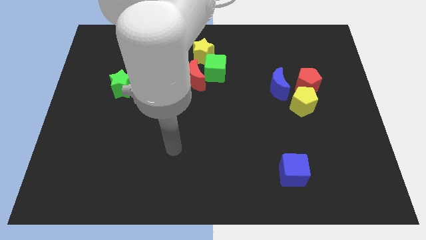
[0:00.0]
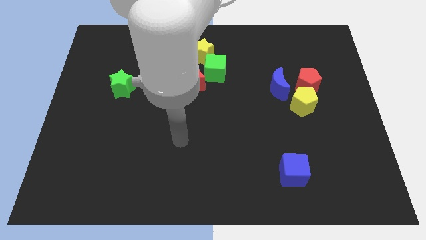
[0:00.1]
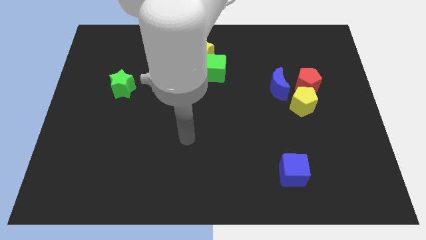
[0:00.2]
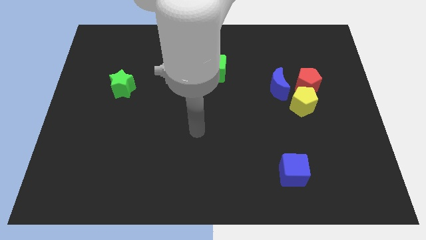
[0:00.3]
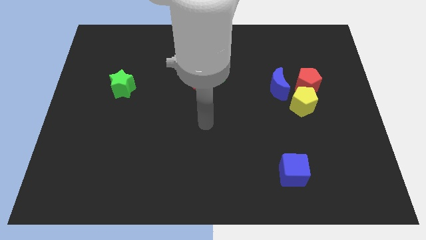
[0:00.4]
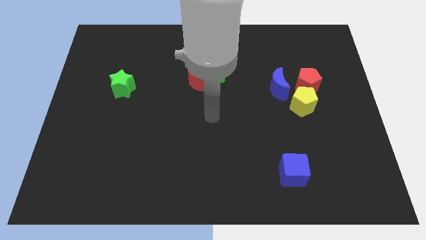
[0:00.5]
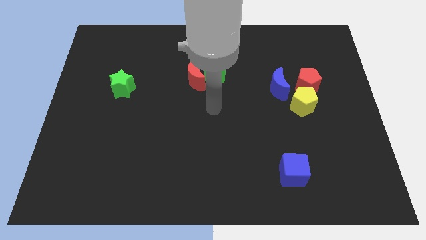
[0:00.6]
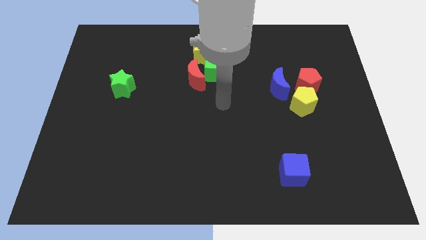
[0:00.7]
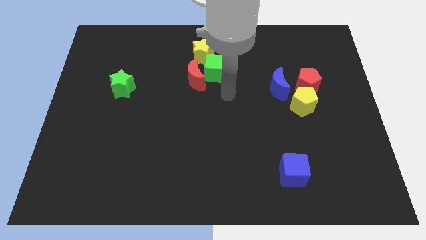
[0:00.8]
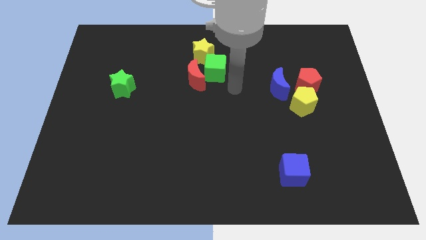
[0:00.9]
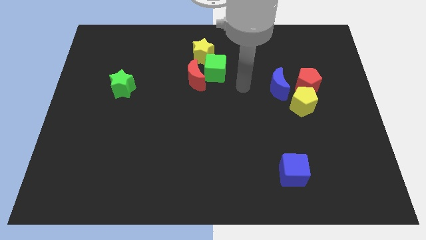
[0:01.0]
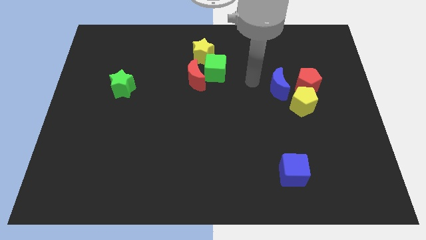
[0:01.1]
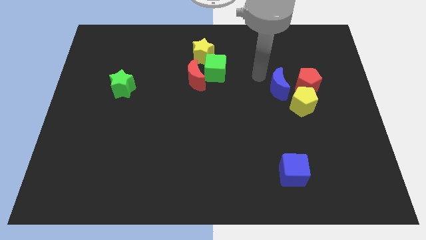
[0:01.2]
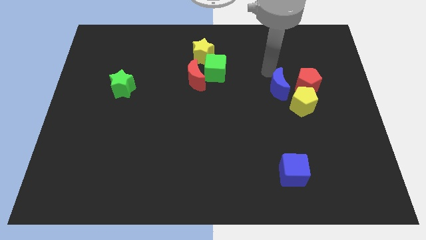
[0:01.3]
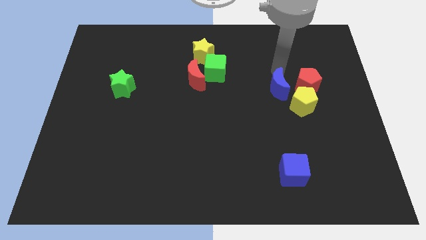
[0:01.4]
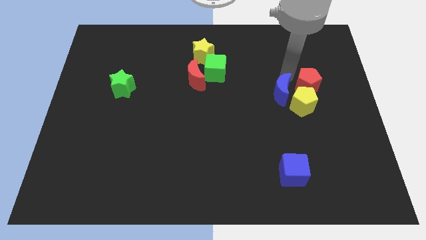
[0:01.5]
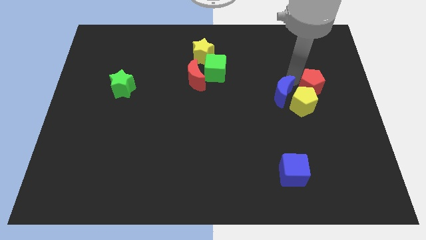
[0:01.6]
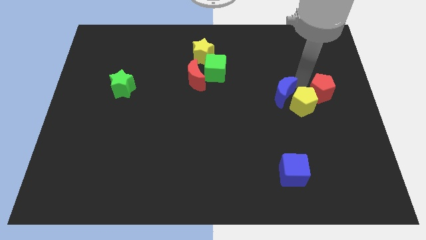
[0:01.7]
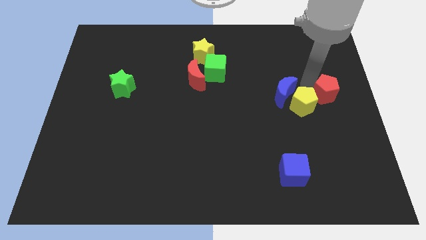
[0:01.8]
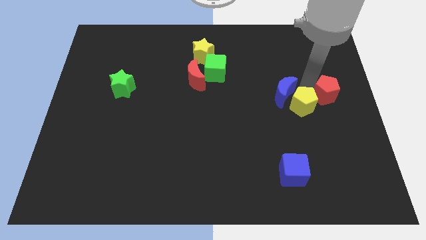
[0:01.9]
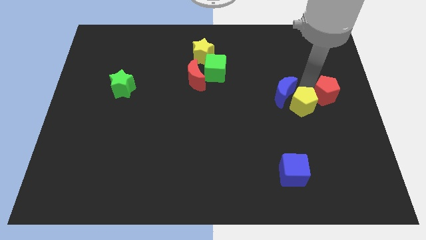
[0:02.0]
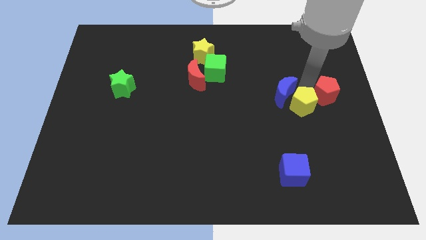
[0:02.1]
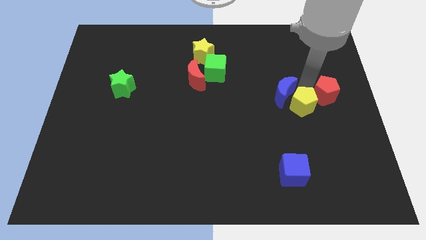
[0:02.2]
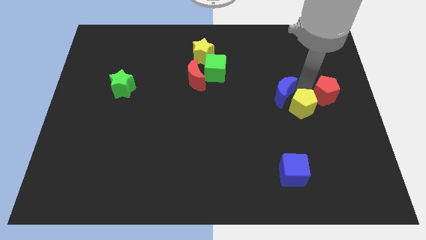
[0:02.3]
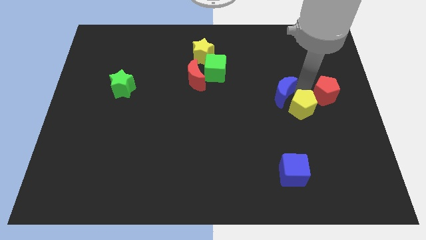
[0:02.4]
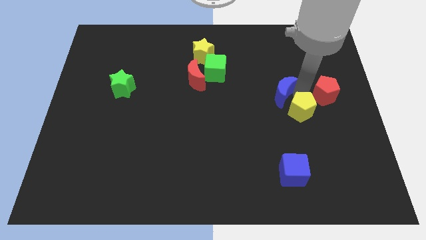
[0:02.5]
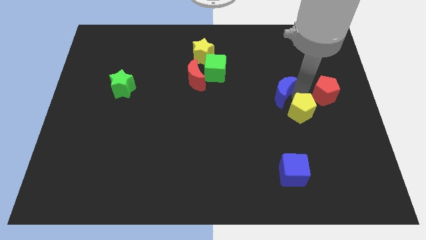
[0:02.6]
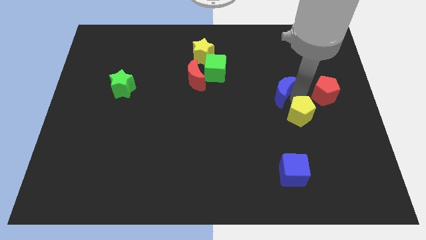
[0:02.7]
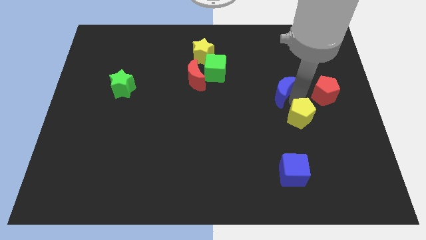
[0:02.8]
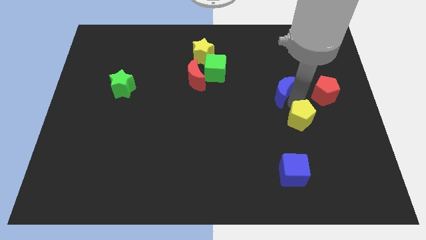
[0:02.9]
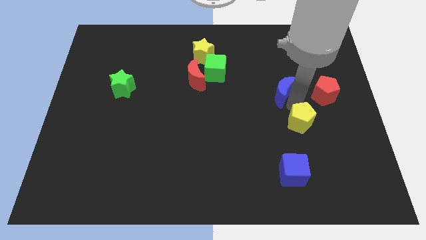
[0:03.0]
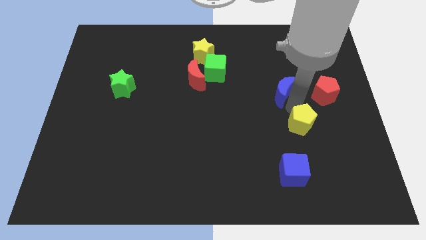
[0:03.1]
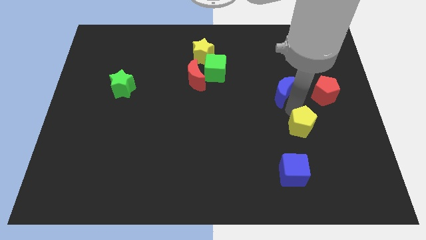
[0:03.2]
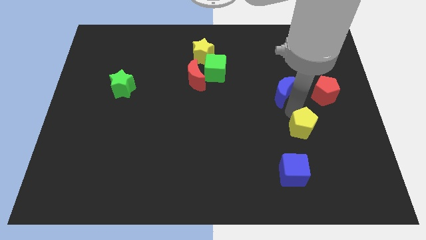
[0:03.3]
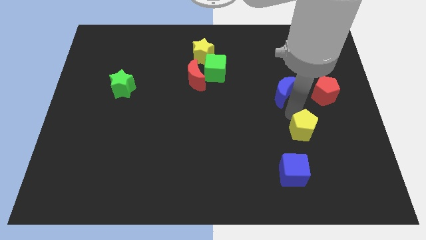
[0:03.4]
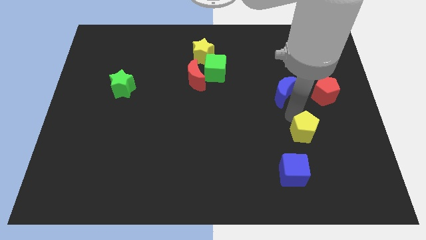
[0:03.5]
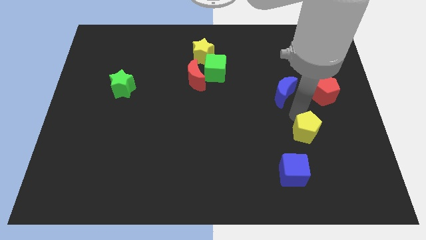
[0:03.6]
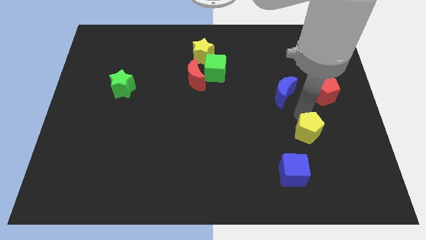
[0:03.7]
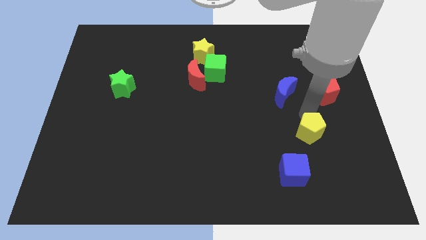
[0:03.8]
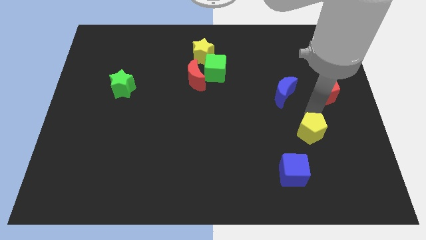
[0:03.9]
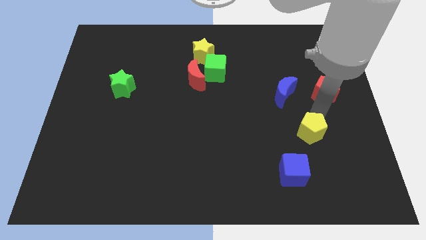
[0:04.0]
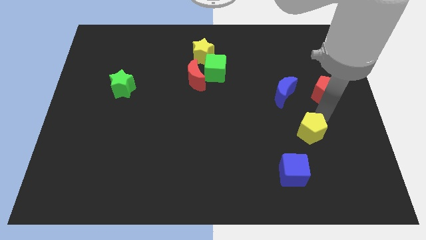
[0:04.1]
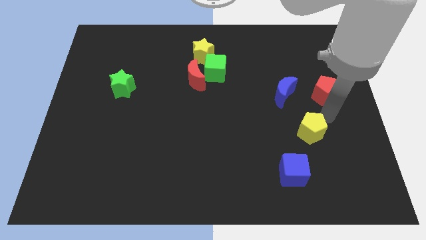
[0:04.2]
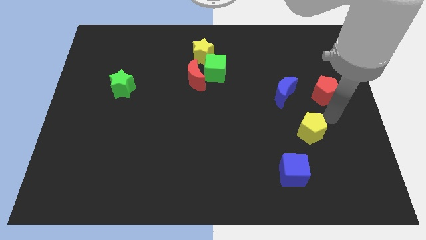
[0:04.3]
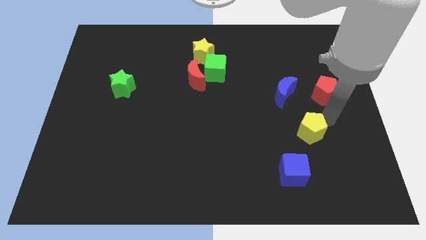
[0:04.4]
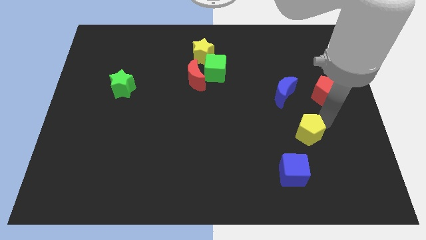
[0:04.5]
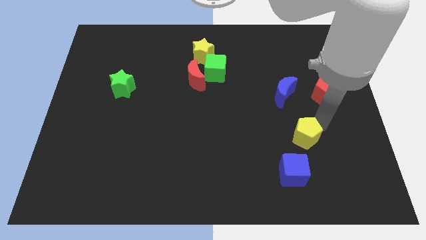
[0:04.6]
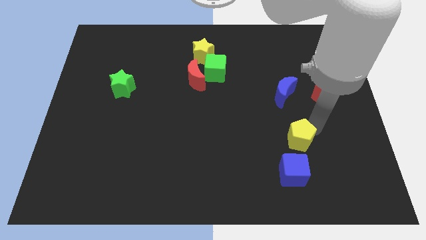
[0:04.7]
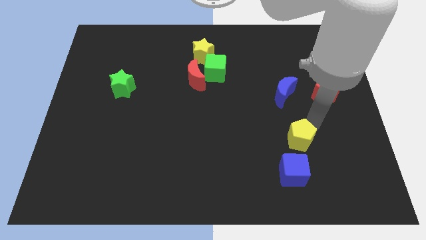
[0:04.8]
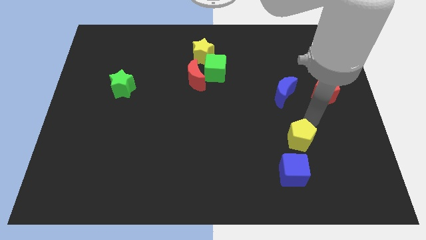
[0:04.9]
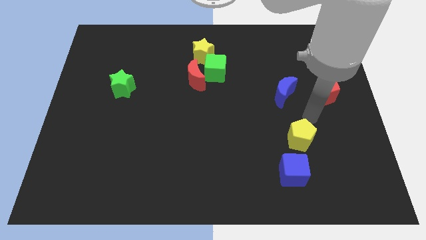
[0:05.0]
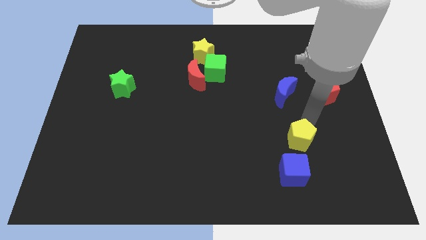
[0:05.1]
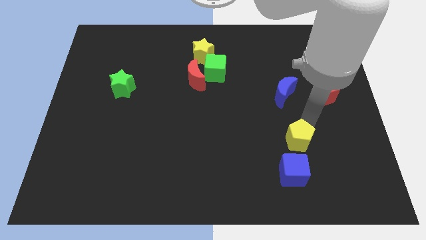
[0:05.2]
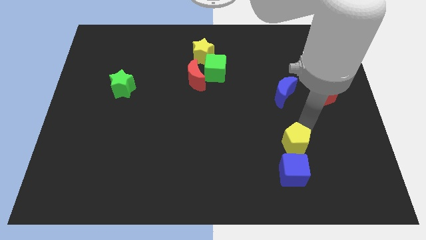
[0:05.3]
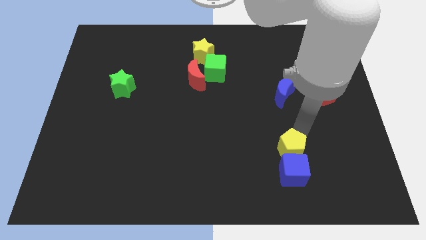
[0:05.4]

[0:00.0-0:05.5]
move the yellow pentagon to the blue cube
